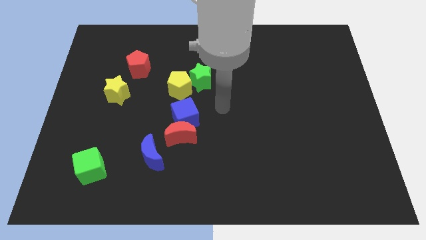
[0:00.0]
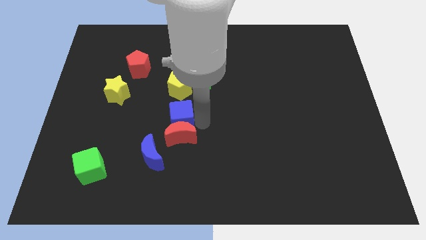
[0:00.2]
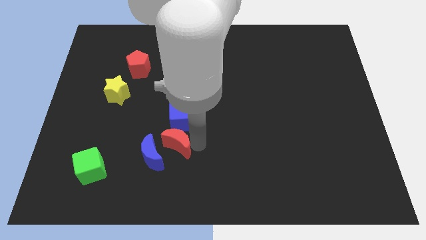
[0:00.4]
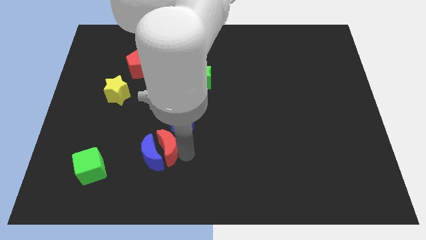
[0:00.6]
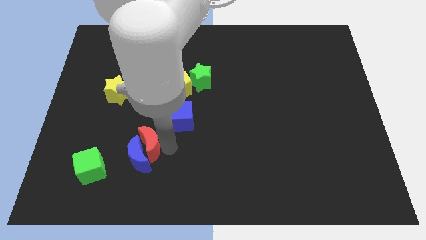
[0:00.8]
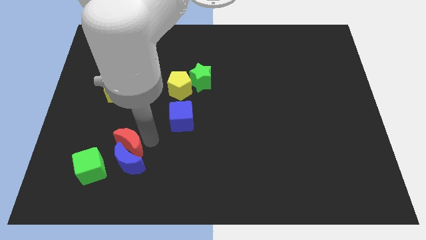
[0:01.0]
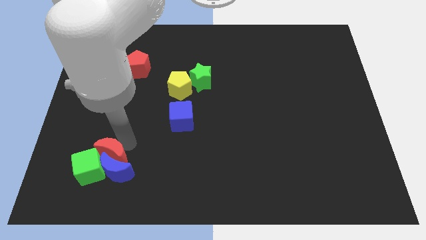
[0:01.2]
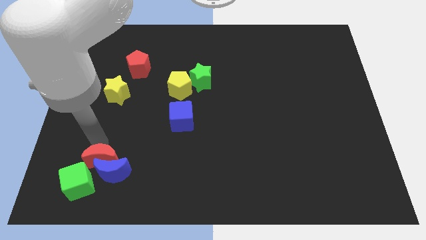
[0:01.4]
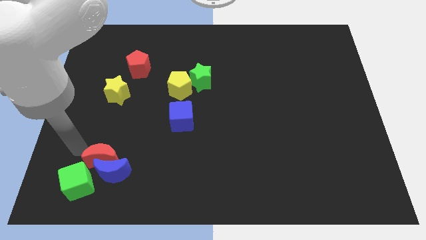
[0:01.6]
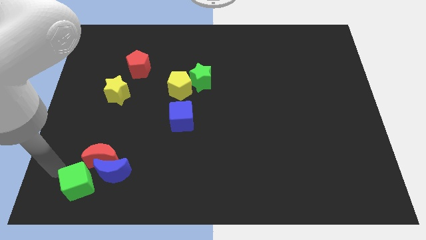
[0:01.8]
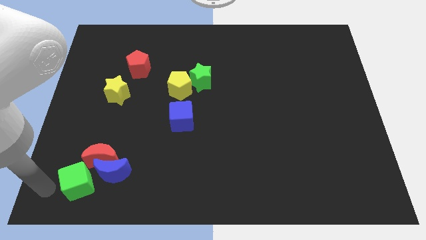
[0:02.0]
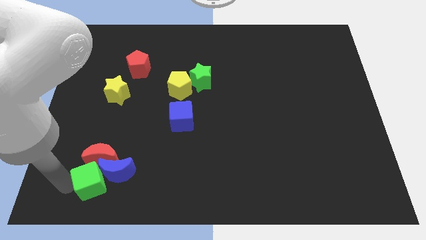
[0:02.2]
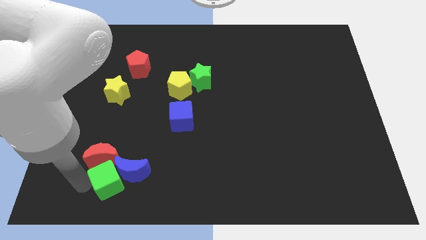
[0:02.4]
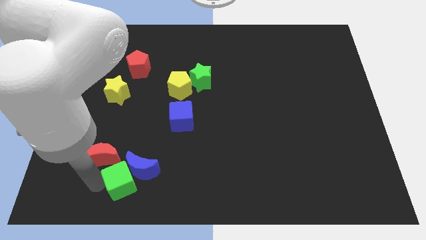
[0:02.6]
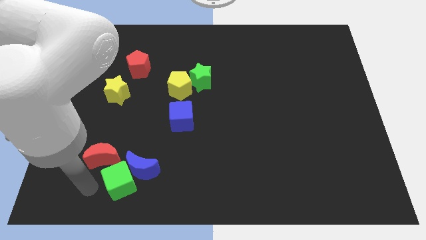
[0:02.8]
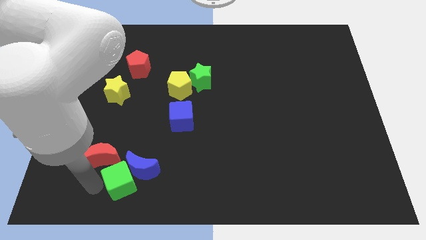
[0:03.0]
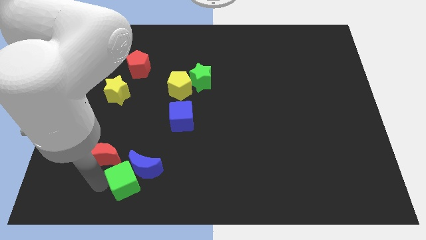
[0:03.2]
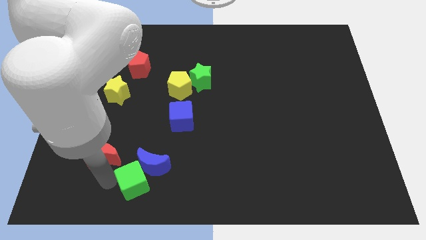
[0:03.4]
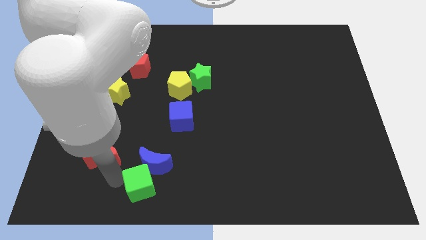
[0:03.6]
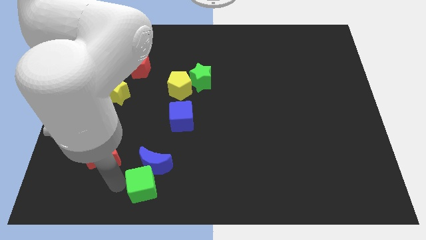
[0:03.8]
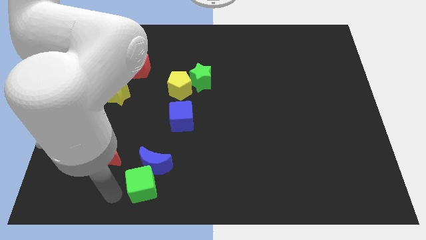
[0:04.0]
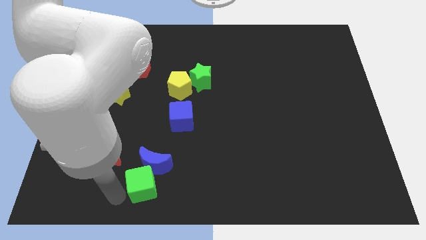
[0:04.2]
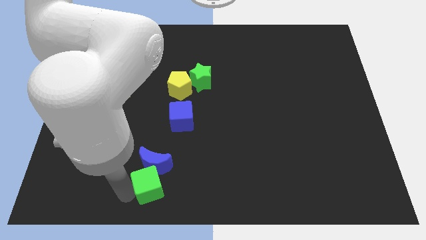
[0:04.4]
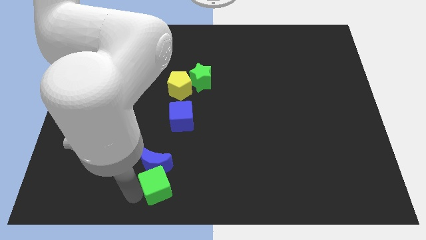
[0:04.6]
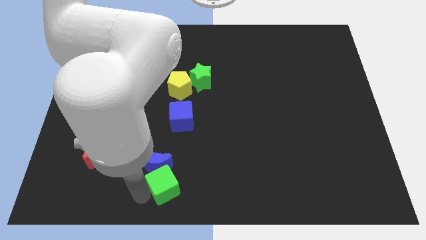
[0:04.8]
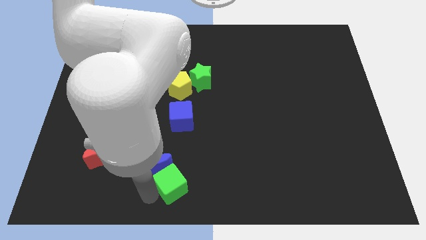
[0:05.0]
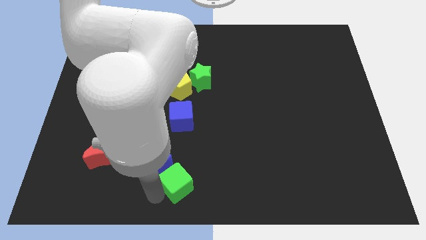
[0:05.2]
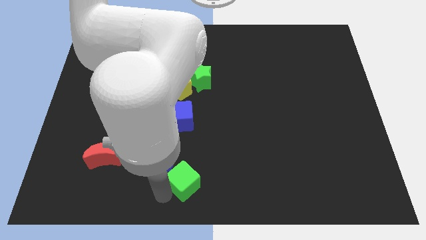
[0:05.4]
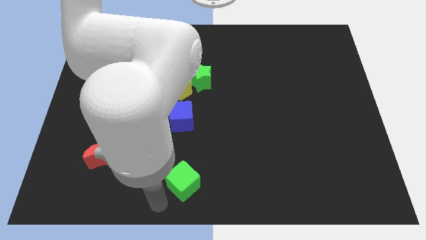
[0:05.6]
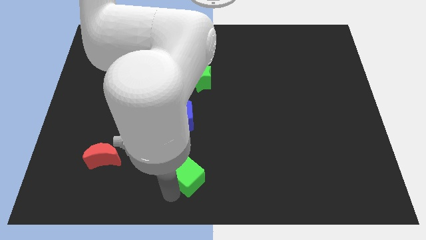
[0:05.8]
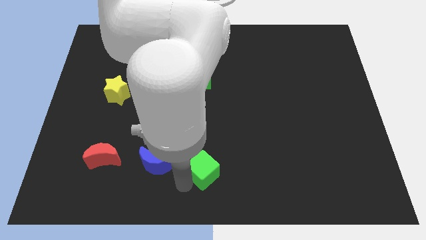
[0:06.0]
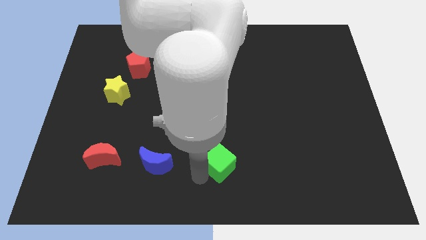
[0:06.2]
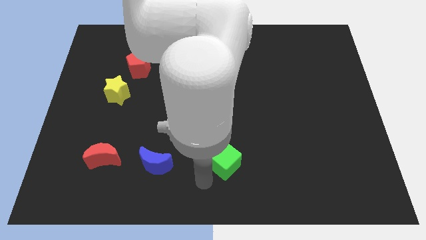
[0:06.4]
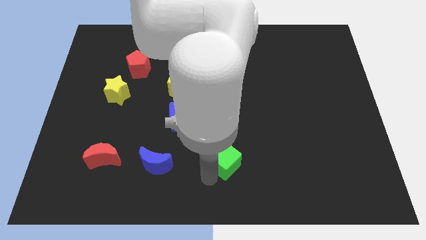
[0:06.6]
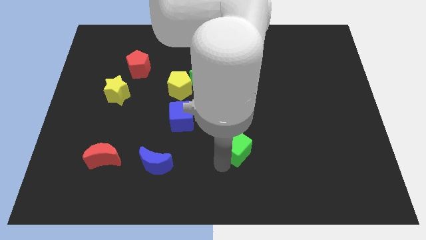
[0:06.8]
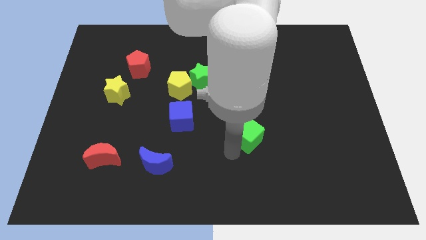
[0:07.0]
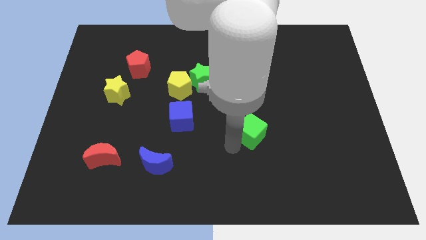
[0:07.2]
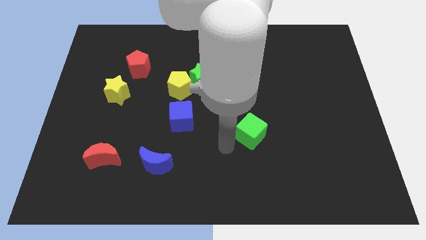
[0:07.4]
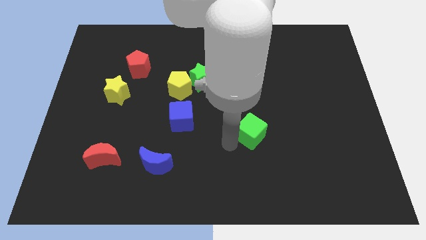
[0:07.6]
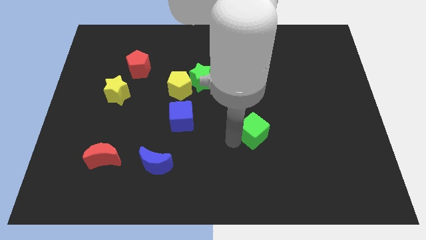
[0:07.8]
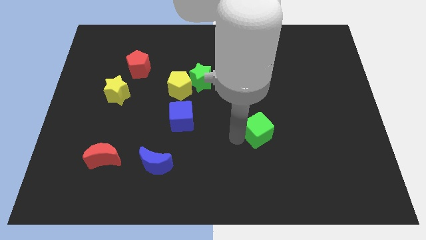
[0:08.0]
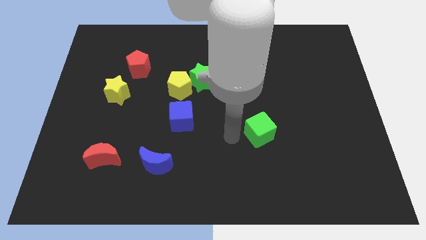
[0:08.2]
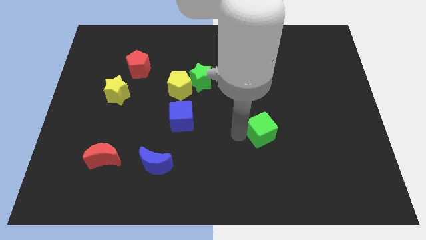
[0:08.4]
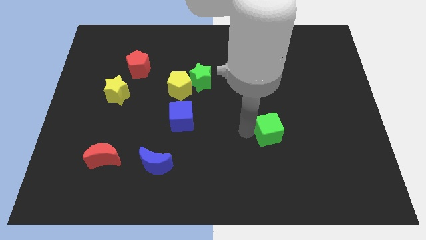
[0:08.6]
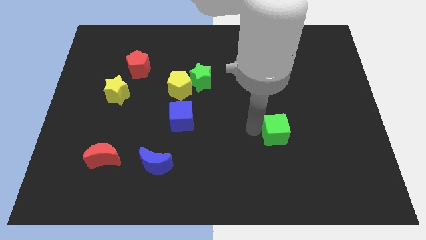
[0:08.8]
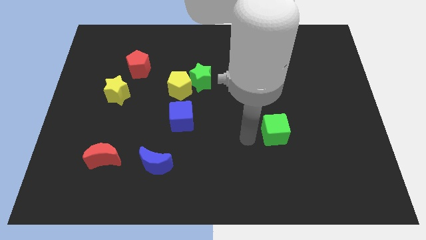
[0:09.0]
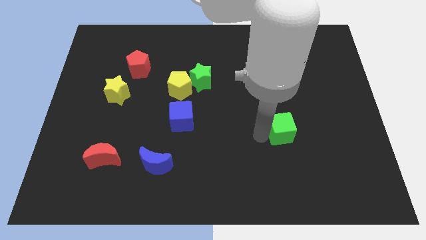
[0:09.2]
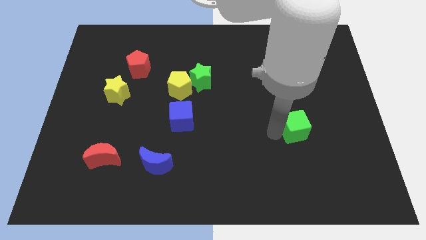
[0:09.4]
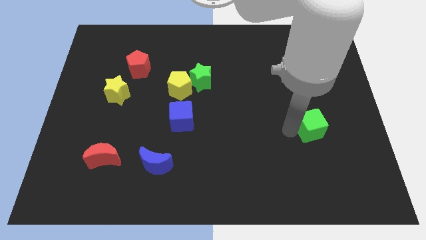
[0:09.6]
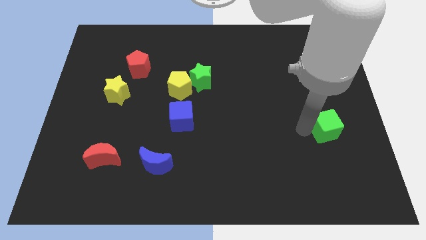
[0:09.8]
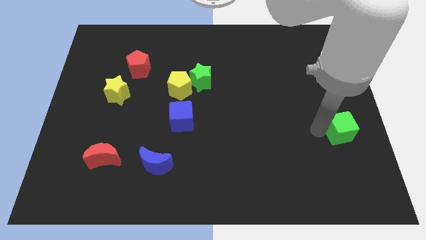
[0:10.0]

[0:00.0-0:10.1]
put the green cube to the right side of the board

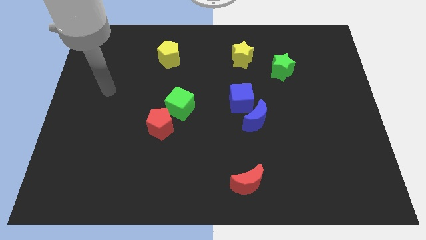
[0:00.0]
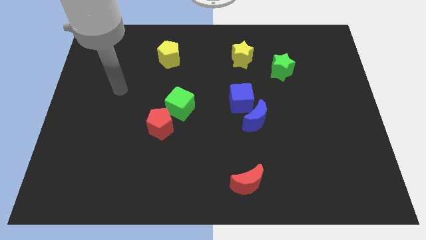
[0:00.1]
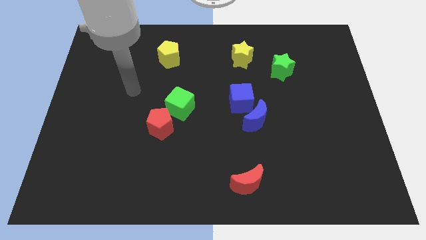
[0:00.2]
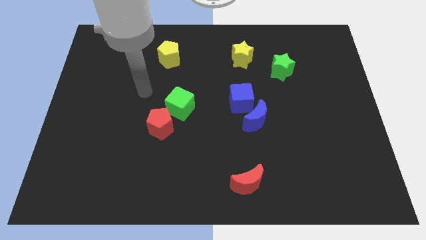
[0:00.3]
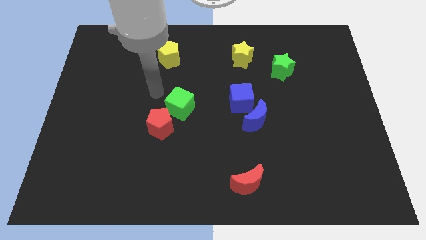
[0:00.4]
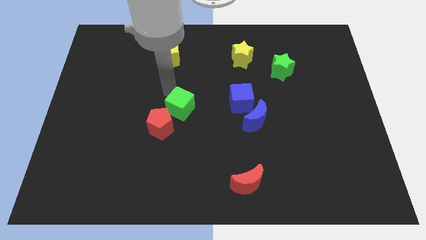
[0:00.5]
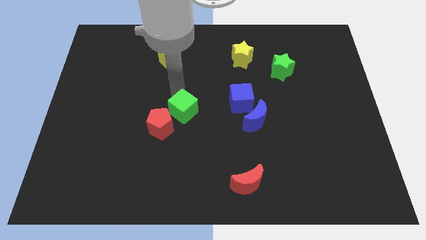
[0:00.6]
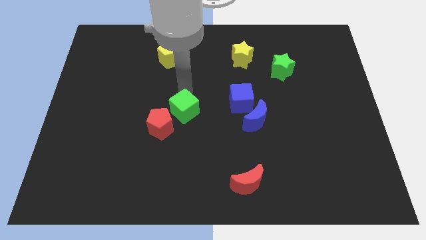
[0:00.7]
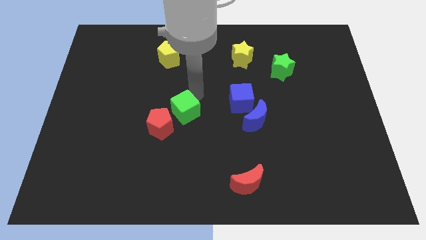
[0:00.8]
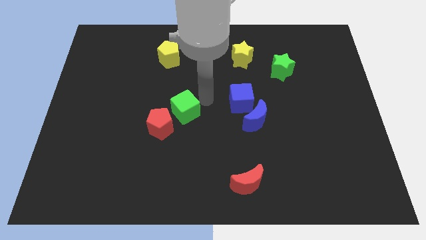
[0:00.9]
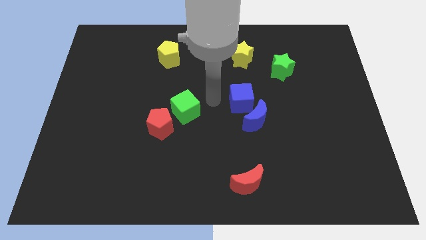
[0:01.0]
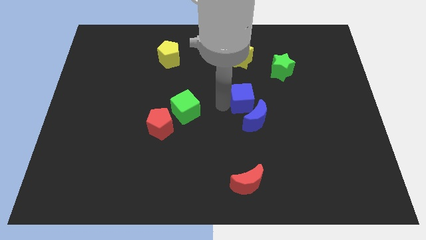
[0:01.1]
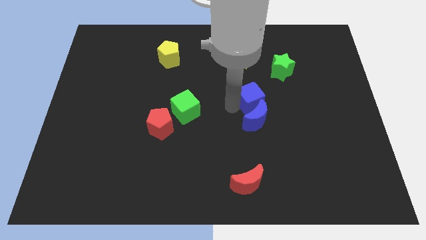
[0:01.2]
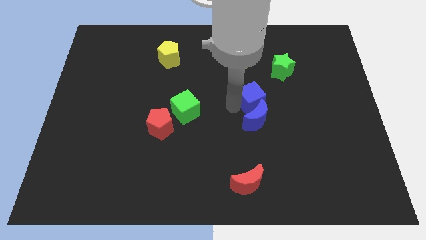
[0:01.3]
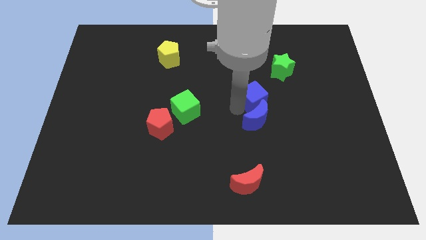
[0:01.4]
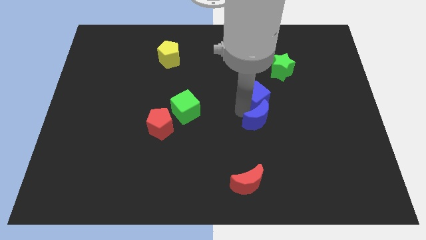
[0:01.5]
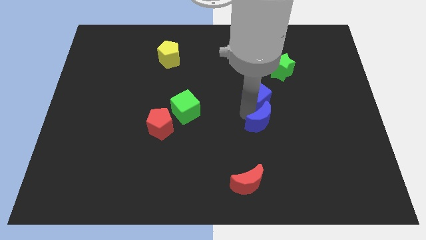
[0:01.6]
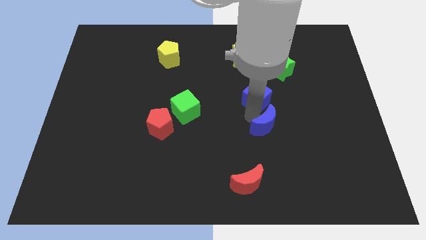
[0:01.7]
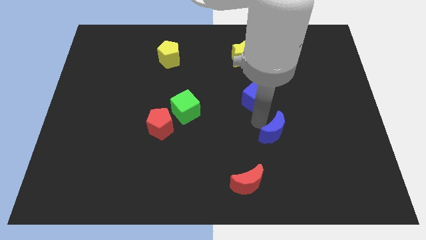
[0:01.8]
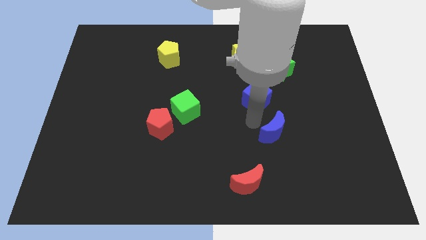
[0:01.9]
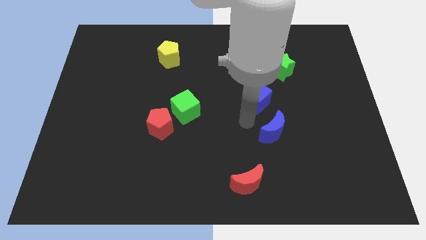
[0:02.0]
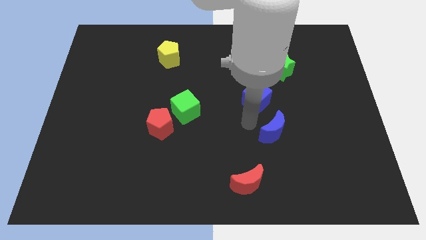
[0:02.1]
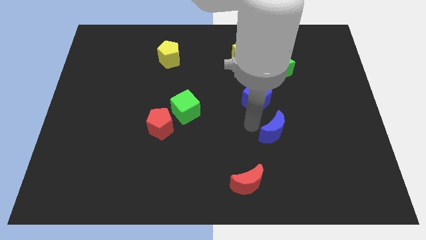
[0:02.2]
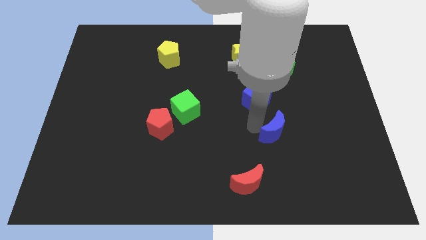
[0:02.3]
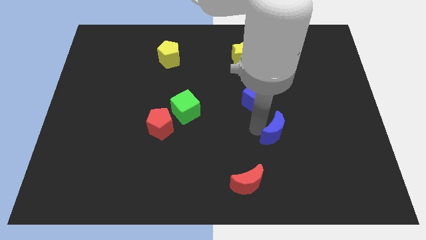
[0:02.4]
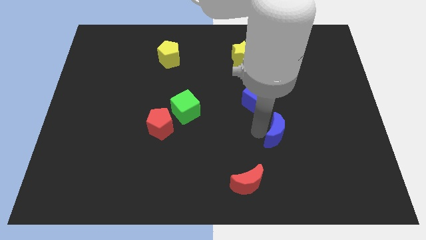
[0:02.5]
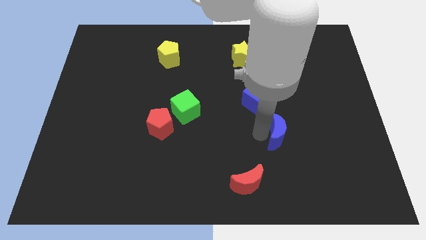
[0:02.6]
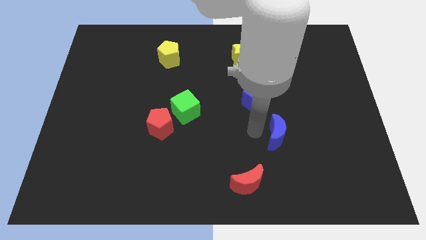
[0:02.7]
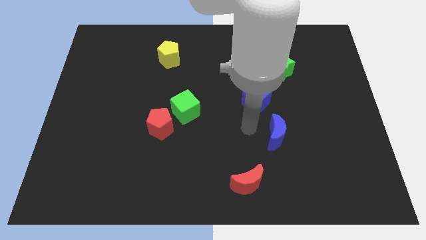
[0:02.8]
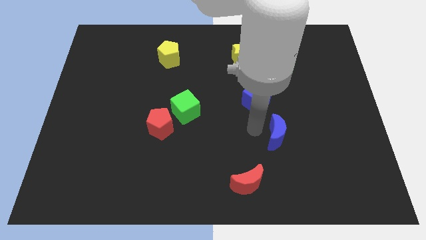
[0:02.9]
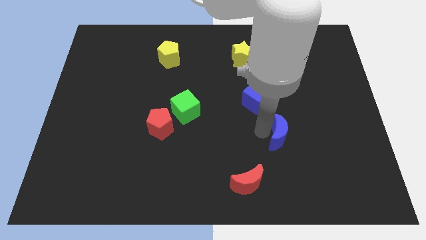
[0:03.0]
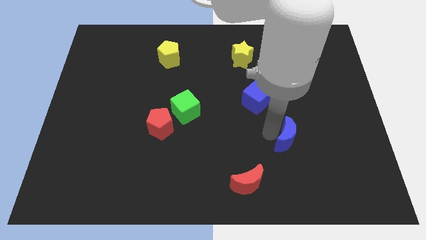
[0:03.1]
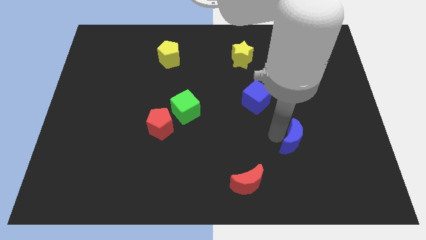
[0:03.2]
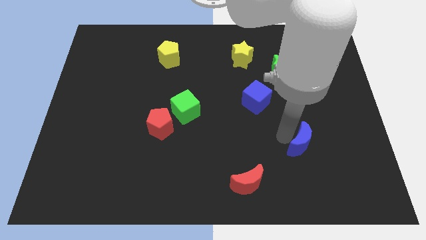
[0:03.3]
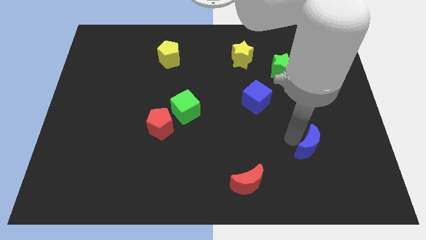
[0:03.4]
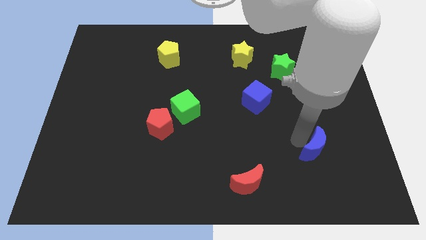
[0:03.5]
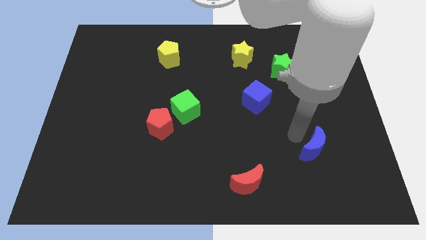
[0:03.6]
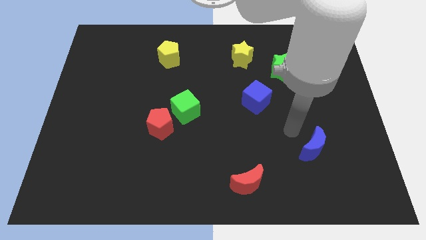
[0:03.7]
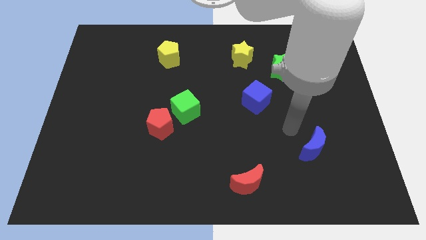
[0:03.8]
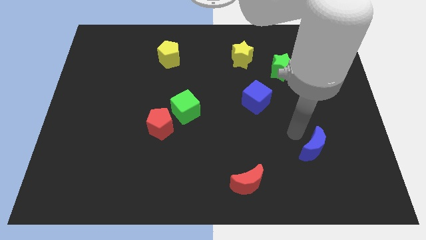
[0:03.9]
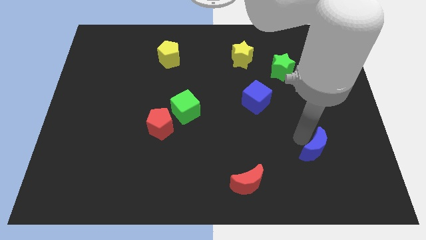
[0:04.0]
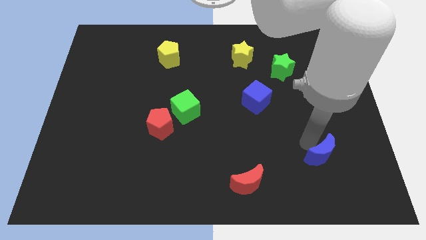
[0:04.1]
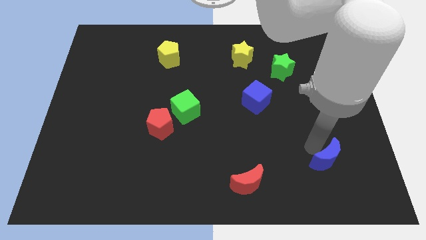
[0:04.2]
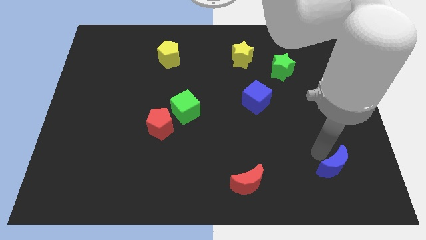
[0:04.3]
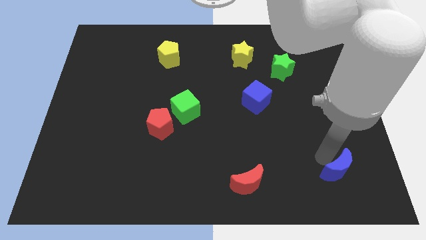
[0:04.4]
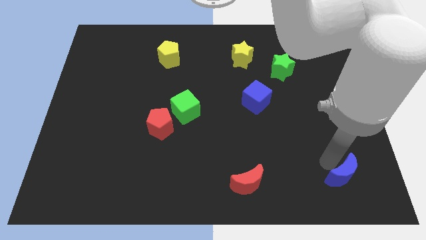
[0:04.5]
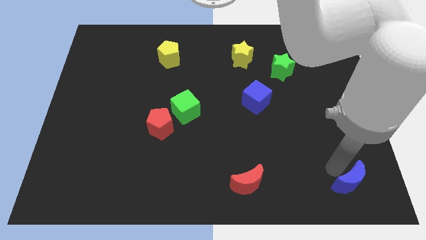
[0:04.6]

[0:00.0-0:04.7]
put the blue moon to the bottom right of the board
